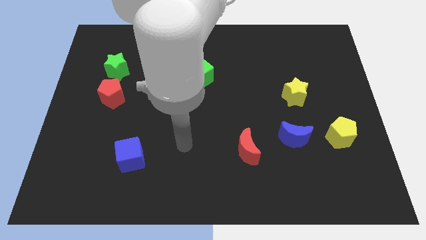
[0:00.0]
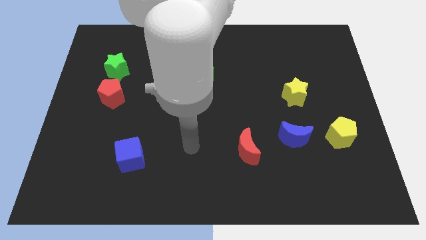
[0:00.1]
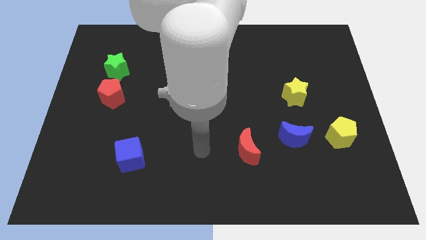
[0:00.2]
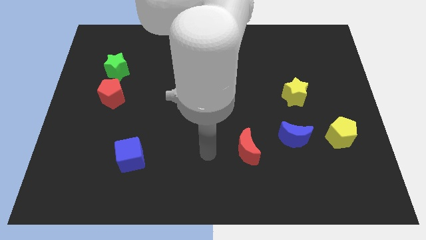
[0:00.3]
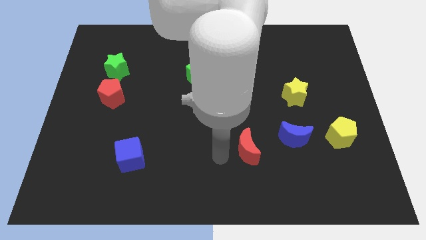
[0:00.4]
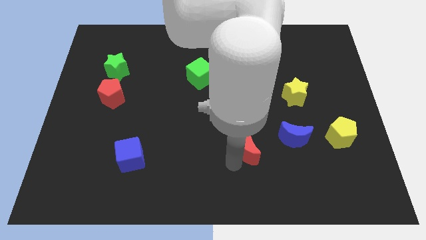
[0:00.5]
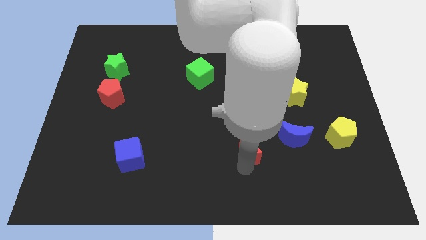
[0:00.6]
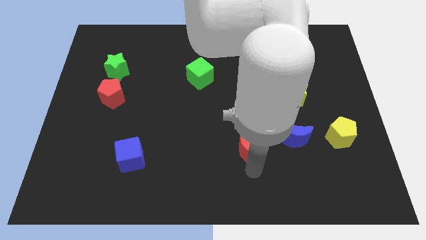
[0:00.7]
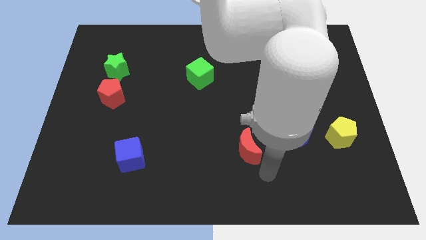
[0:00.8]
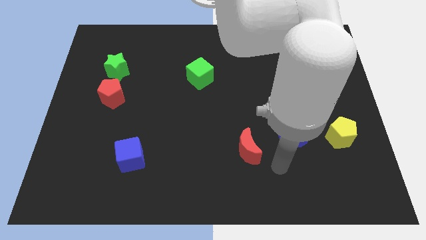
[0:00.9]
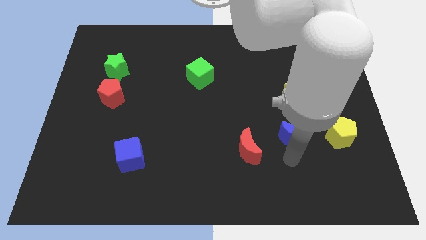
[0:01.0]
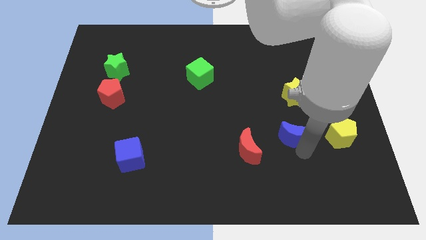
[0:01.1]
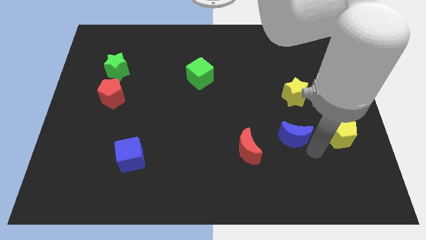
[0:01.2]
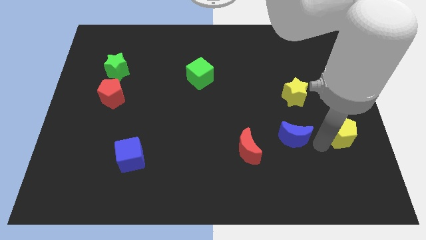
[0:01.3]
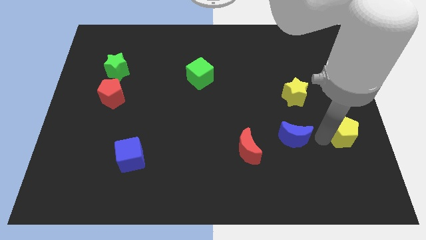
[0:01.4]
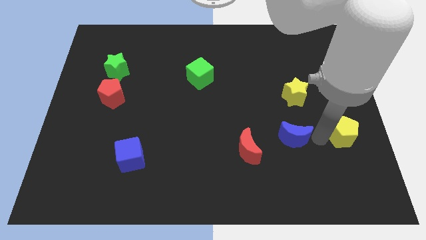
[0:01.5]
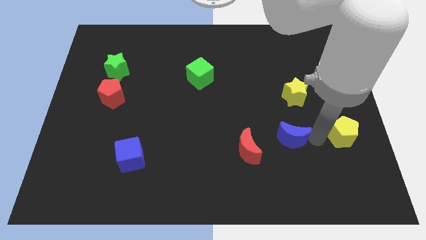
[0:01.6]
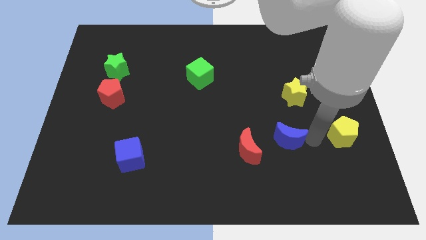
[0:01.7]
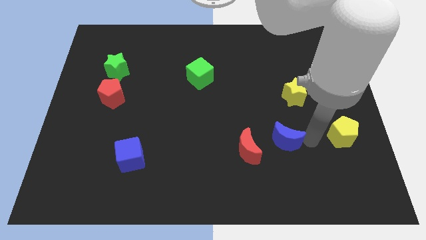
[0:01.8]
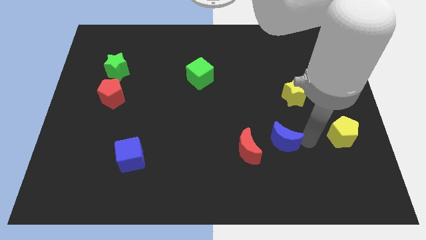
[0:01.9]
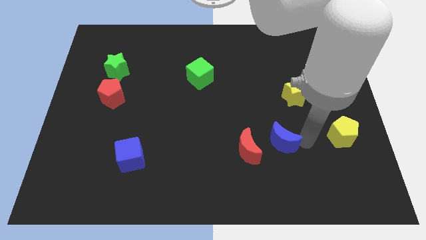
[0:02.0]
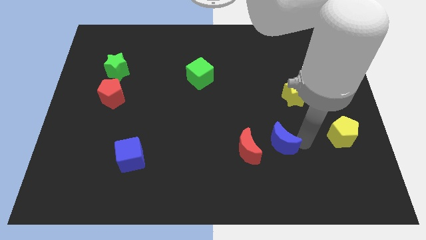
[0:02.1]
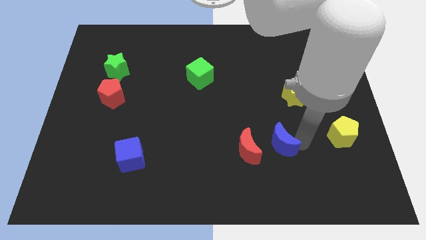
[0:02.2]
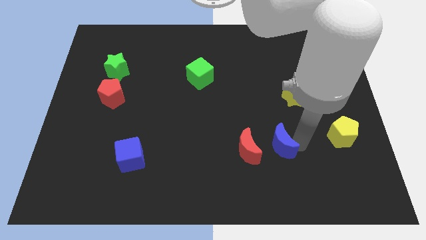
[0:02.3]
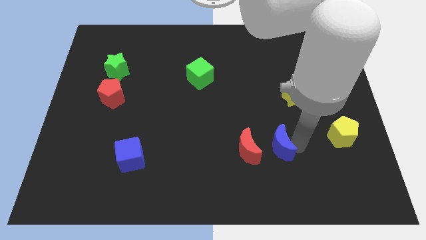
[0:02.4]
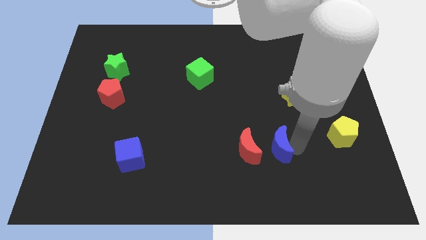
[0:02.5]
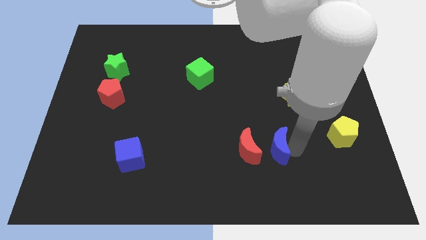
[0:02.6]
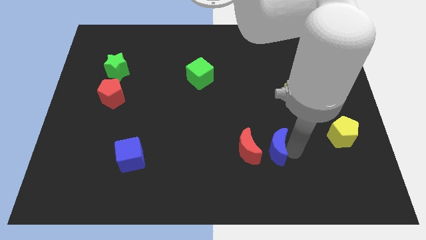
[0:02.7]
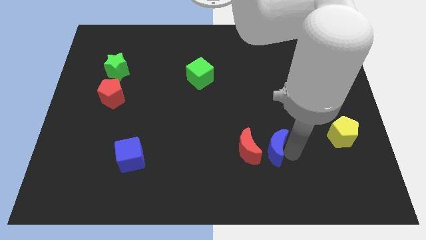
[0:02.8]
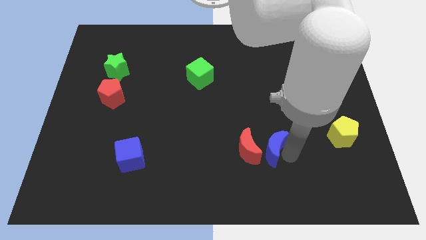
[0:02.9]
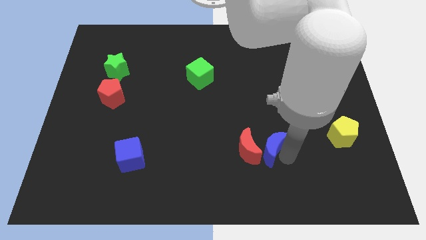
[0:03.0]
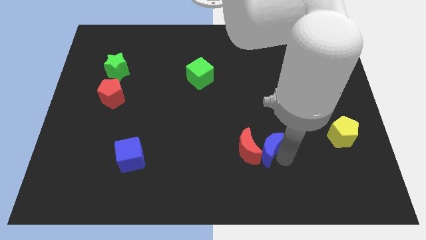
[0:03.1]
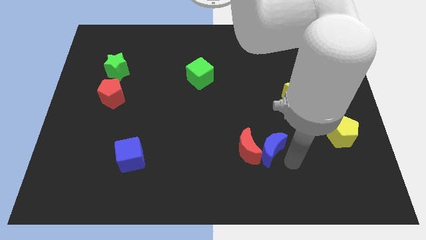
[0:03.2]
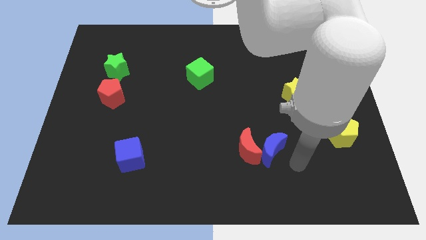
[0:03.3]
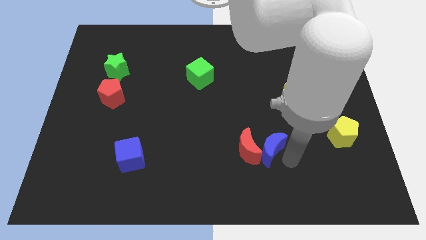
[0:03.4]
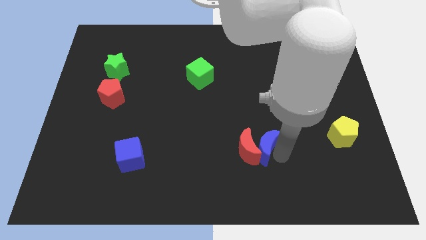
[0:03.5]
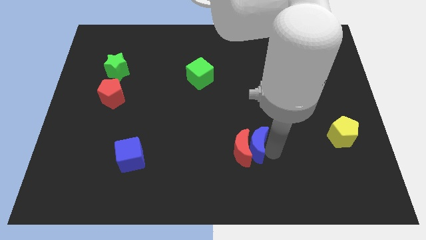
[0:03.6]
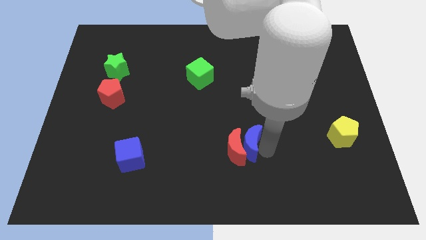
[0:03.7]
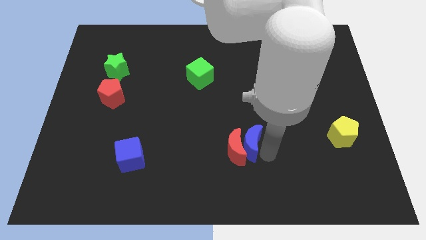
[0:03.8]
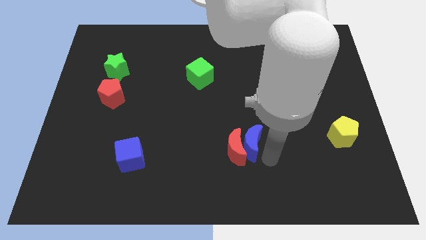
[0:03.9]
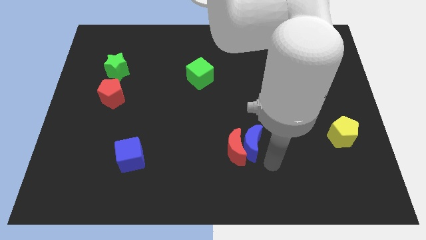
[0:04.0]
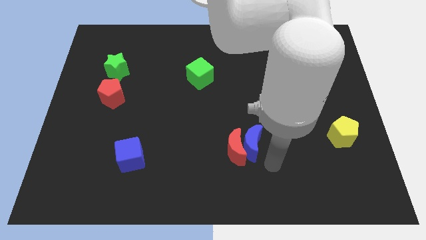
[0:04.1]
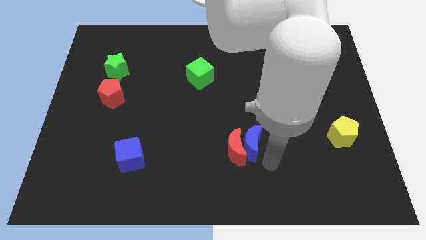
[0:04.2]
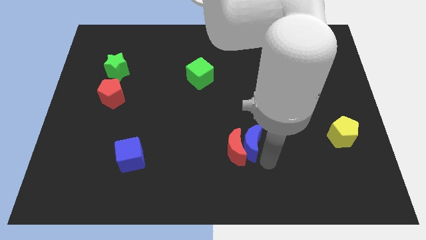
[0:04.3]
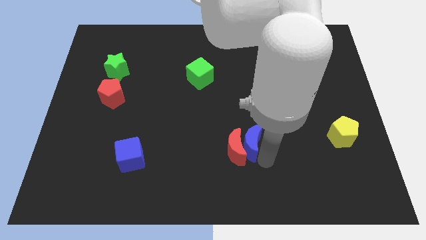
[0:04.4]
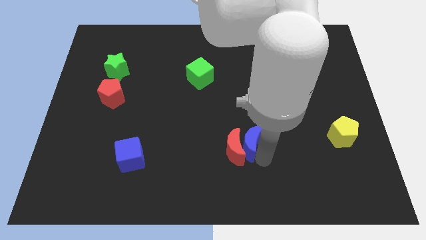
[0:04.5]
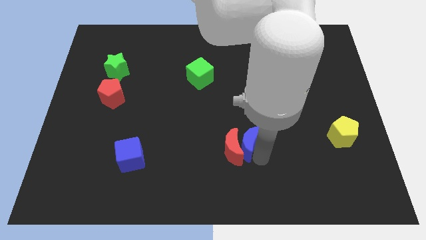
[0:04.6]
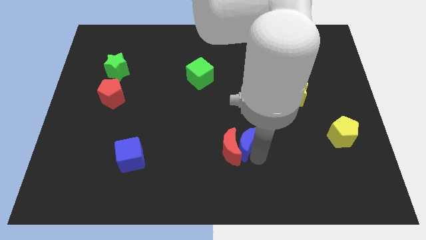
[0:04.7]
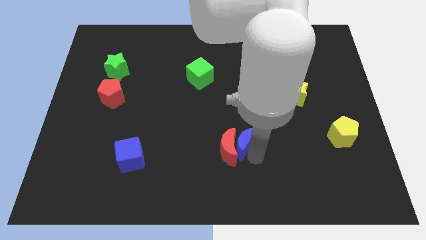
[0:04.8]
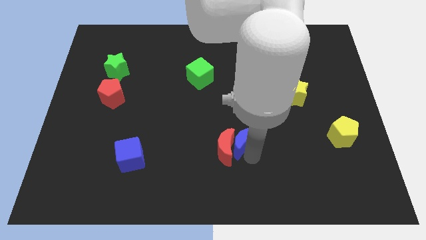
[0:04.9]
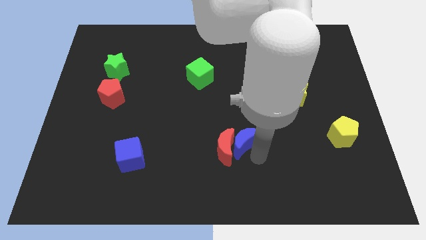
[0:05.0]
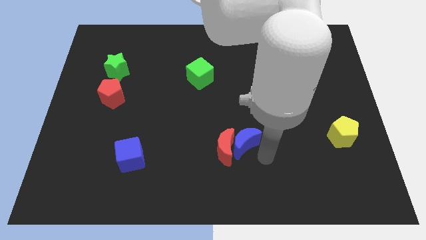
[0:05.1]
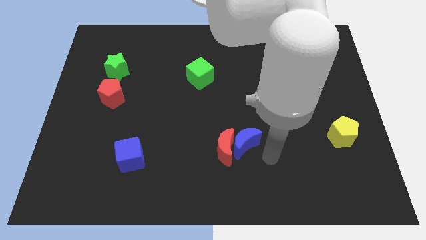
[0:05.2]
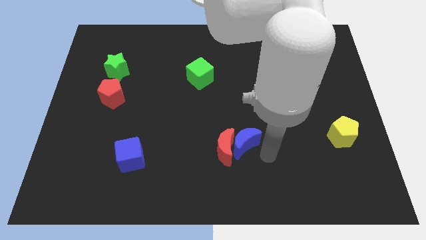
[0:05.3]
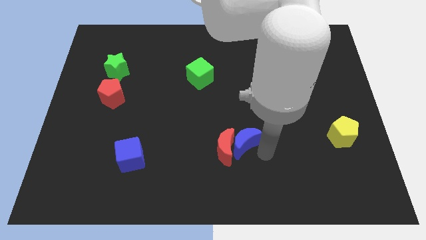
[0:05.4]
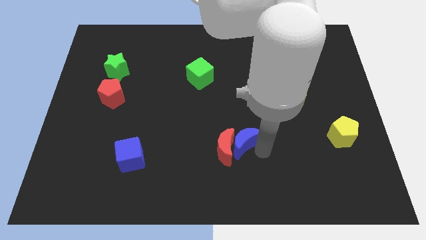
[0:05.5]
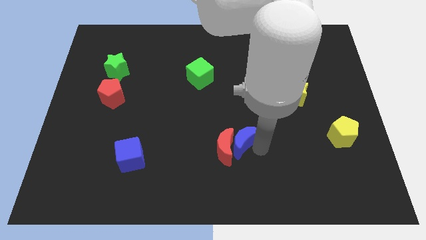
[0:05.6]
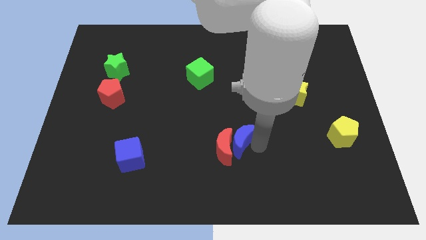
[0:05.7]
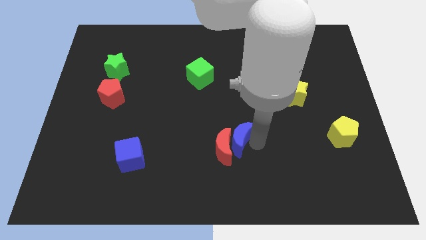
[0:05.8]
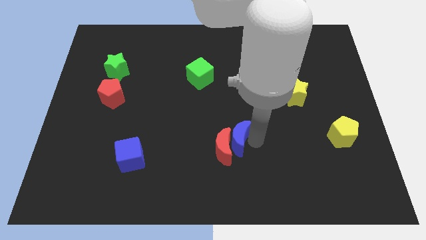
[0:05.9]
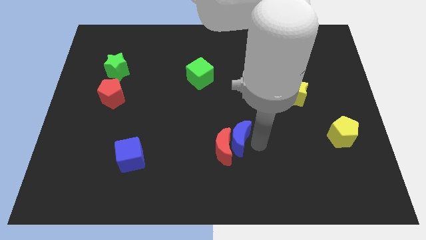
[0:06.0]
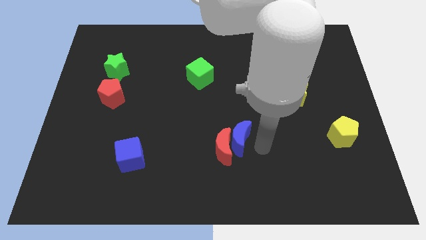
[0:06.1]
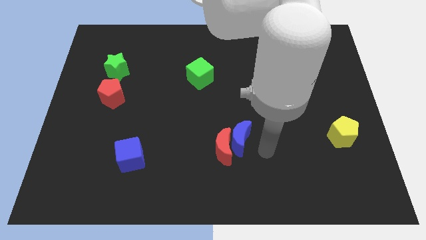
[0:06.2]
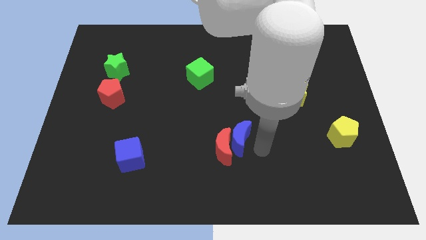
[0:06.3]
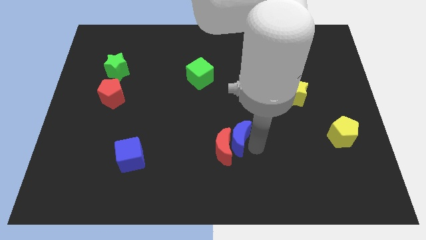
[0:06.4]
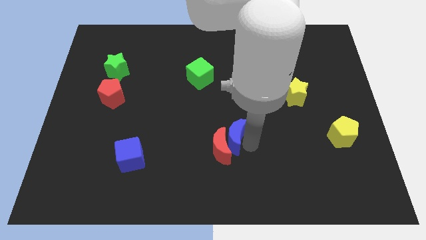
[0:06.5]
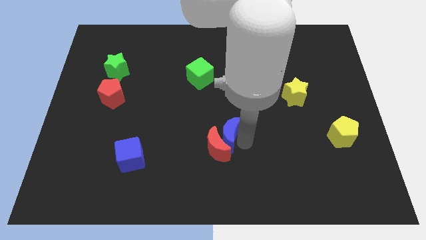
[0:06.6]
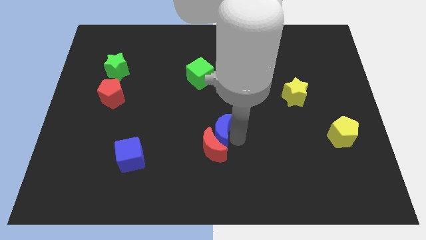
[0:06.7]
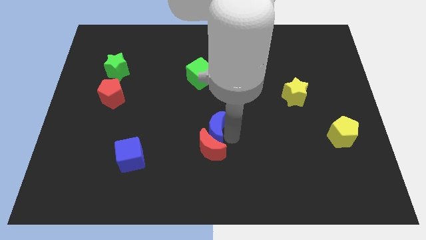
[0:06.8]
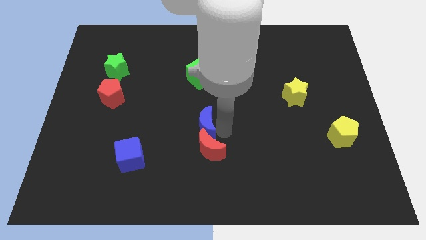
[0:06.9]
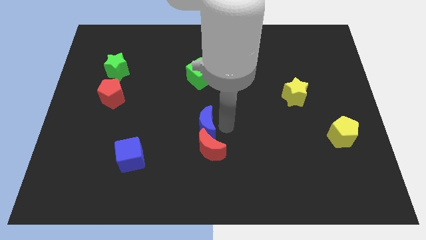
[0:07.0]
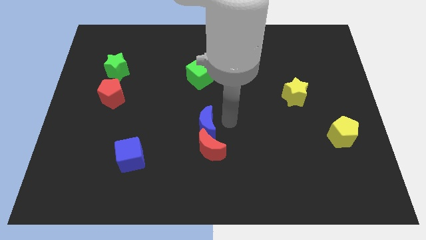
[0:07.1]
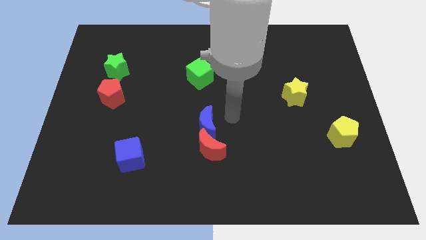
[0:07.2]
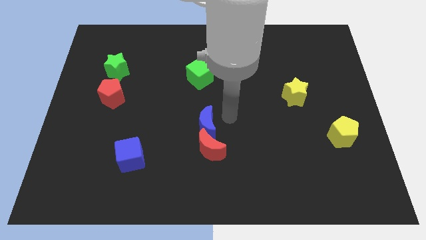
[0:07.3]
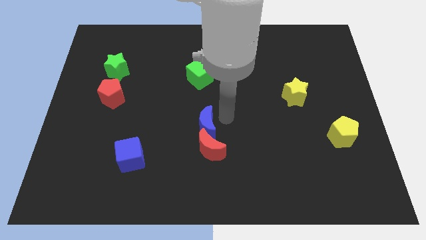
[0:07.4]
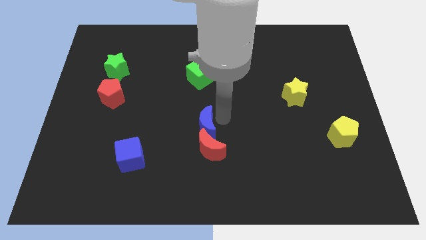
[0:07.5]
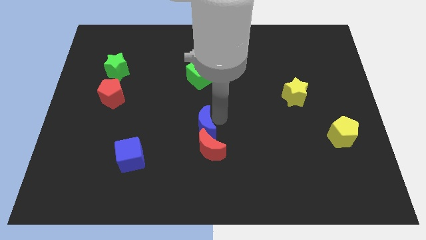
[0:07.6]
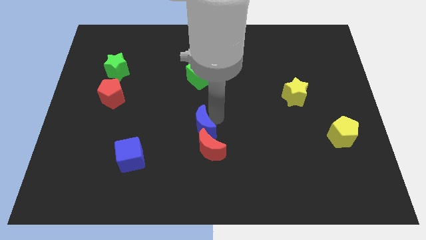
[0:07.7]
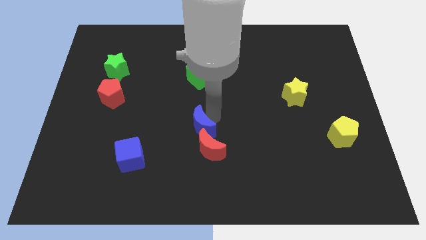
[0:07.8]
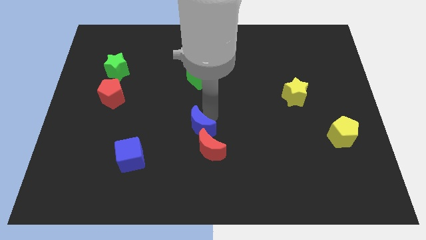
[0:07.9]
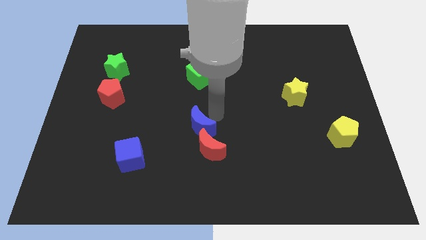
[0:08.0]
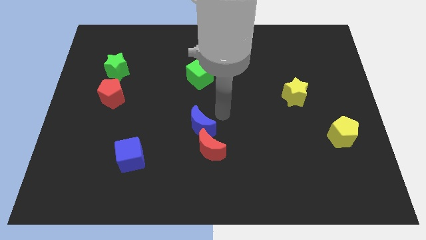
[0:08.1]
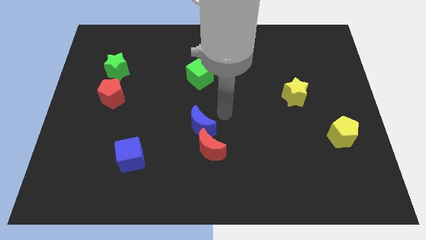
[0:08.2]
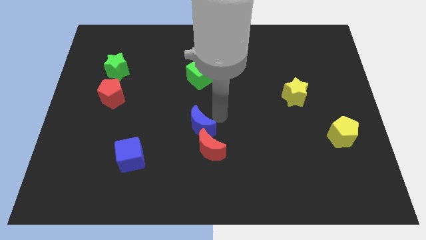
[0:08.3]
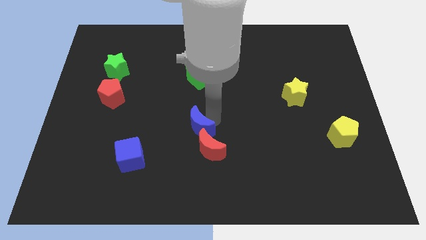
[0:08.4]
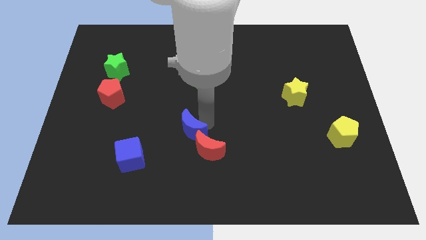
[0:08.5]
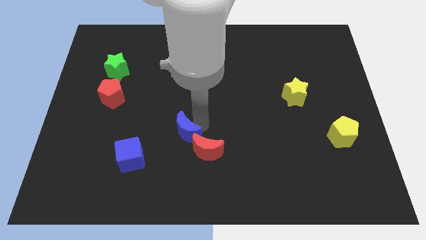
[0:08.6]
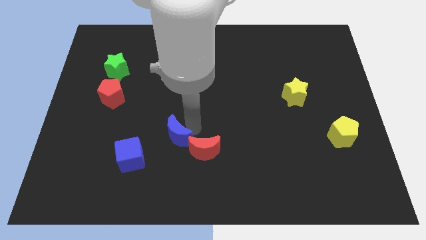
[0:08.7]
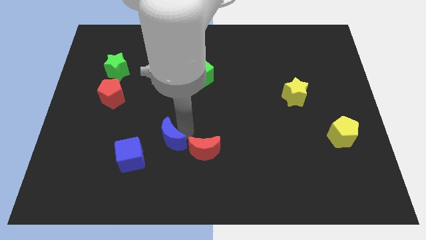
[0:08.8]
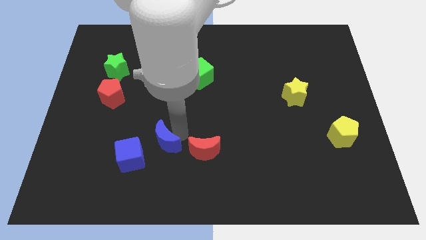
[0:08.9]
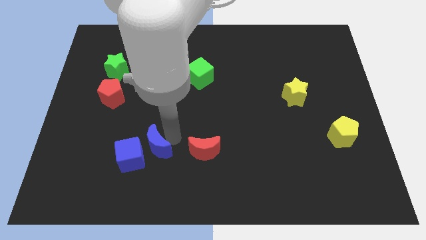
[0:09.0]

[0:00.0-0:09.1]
push the blue moon to the blue cube
